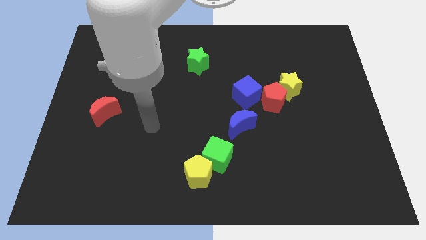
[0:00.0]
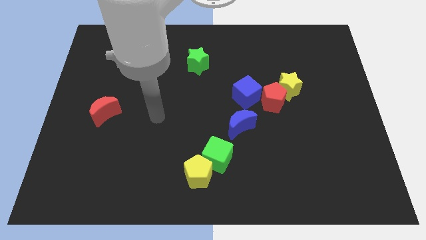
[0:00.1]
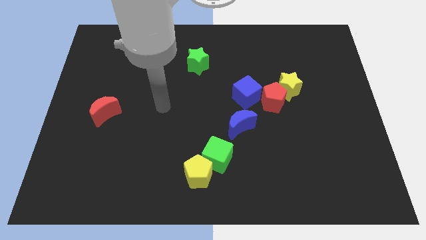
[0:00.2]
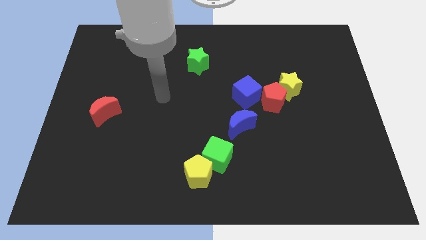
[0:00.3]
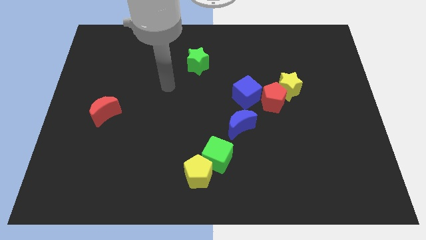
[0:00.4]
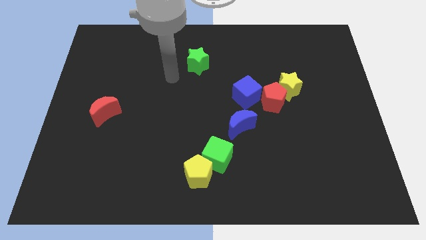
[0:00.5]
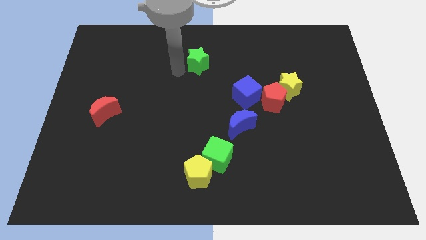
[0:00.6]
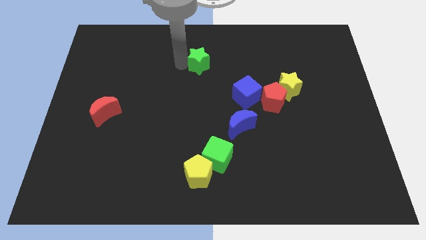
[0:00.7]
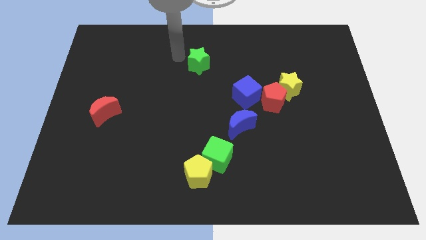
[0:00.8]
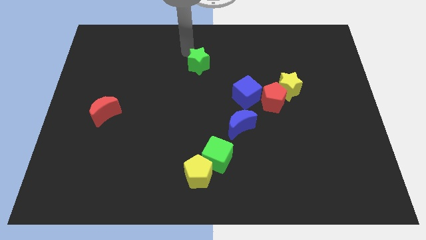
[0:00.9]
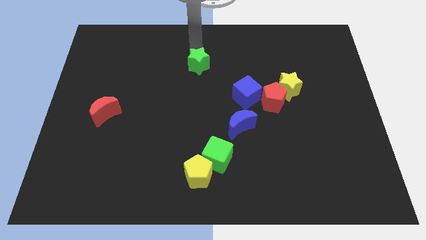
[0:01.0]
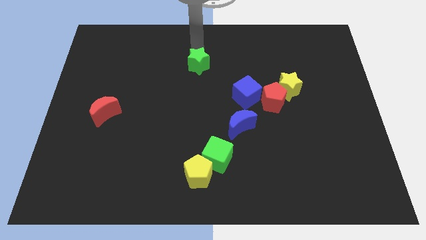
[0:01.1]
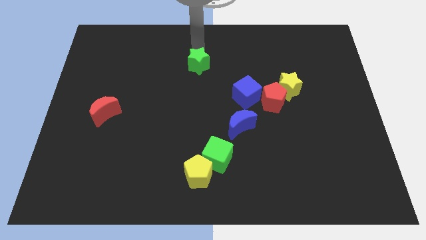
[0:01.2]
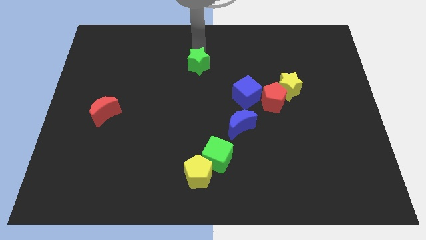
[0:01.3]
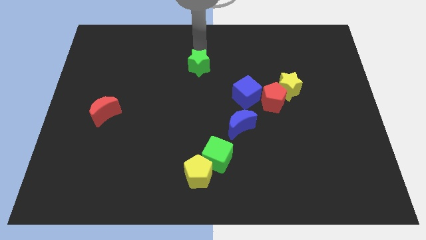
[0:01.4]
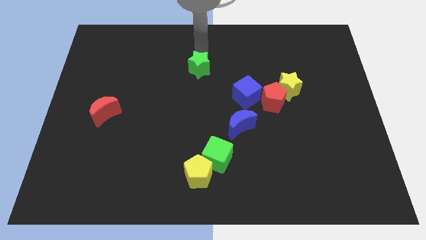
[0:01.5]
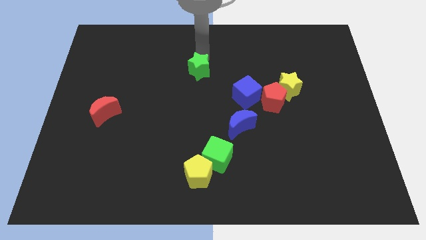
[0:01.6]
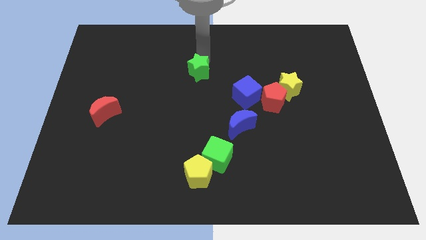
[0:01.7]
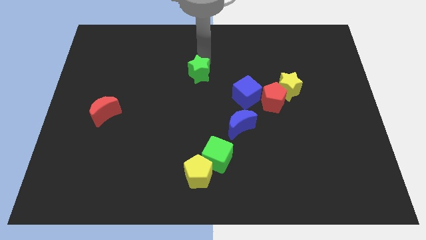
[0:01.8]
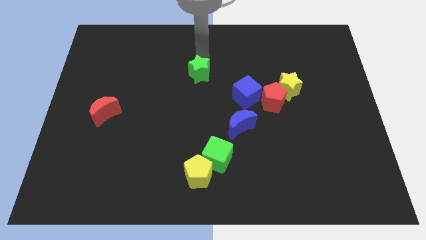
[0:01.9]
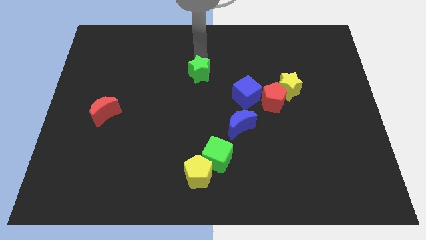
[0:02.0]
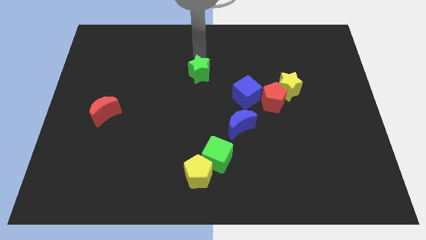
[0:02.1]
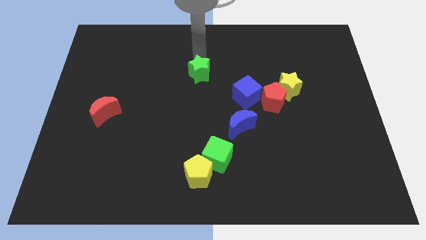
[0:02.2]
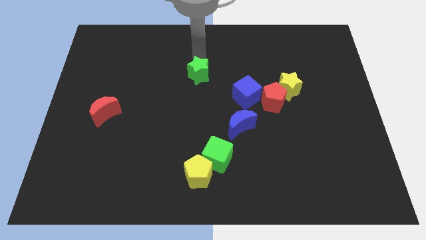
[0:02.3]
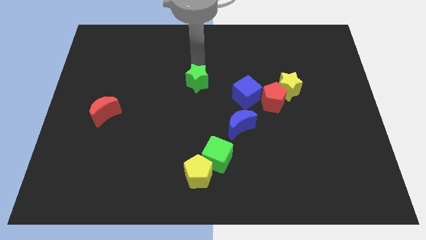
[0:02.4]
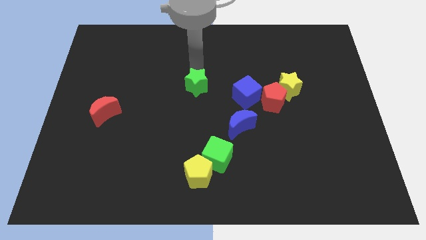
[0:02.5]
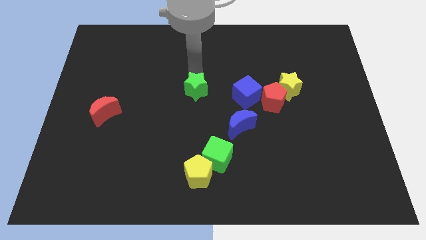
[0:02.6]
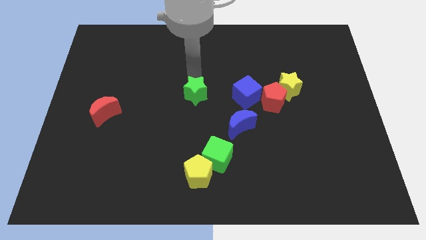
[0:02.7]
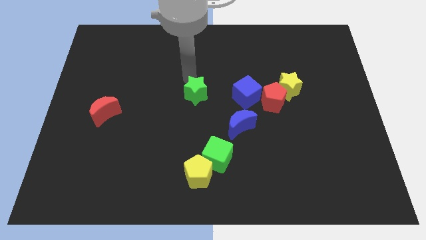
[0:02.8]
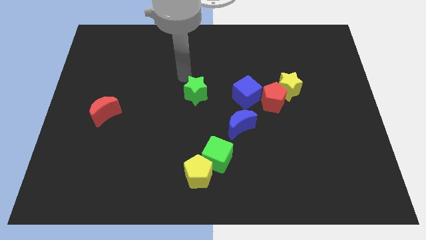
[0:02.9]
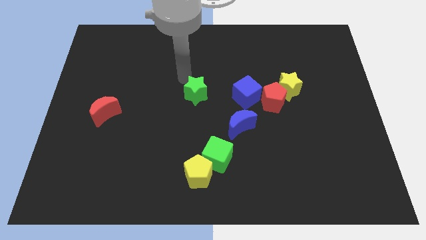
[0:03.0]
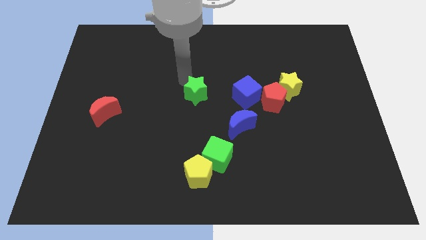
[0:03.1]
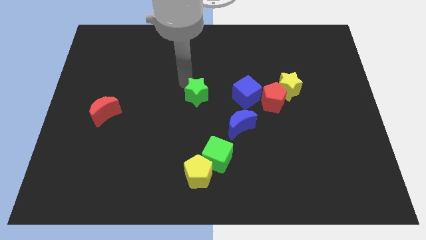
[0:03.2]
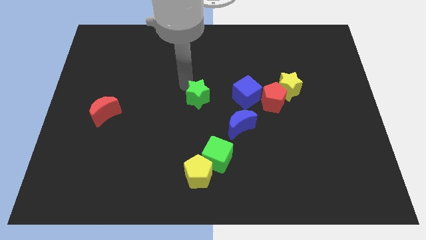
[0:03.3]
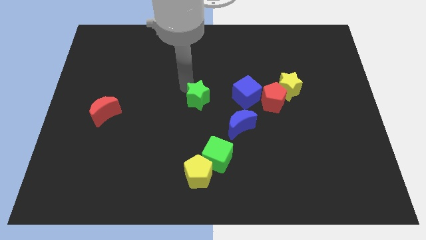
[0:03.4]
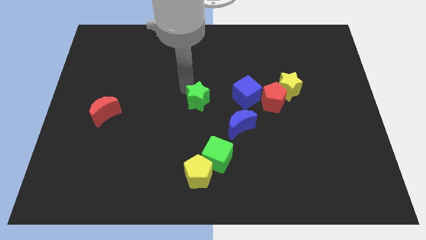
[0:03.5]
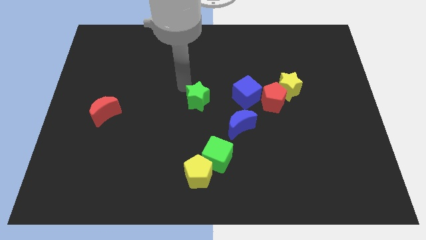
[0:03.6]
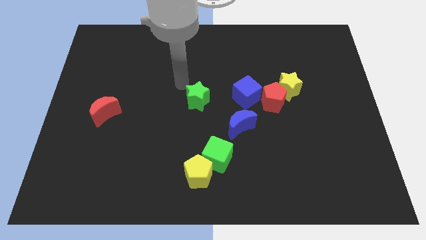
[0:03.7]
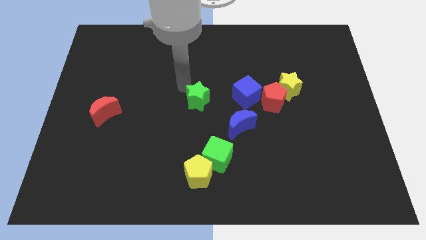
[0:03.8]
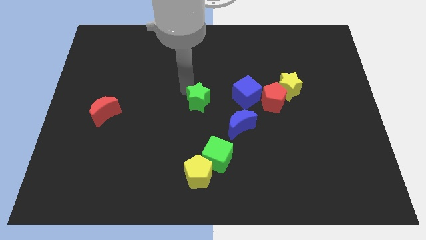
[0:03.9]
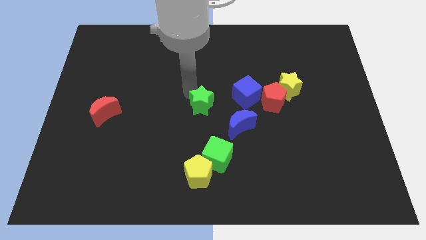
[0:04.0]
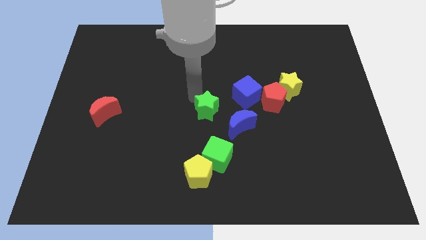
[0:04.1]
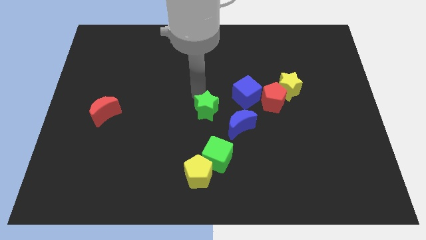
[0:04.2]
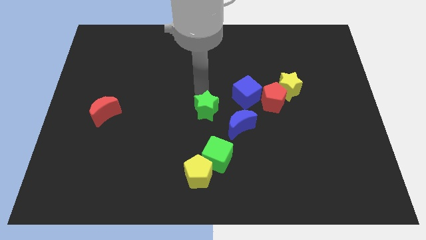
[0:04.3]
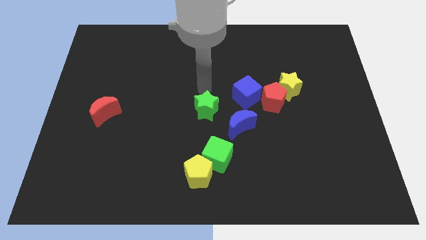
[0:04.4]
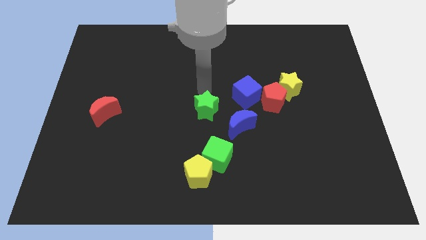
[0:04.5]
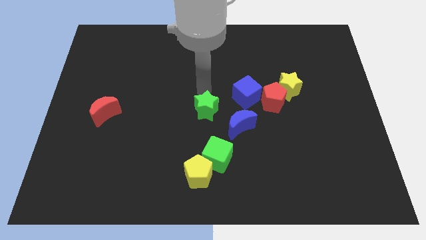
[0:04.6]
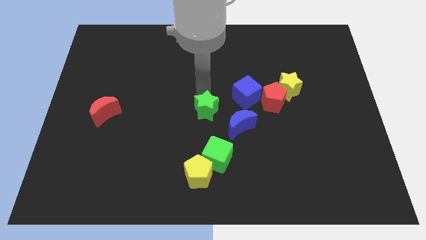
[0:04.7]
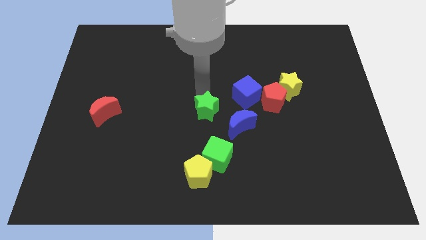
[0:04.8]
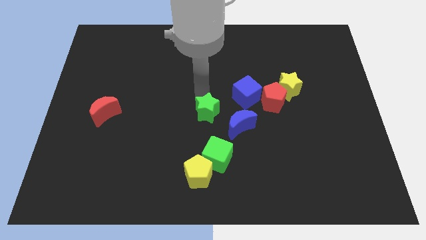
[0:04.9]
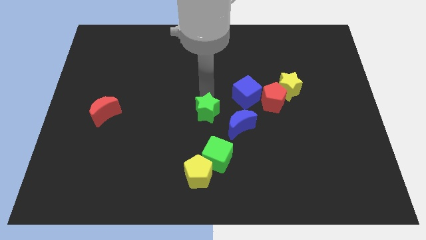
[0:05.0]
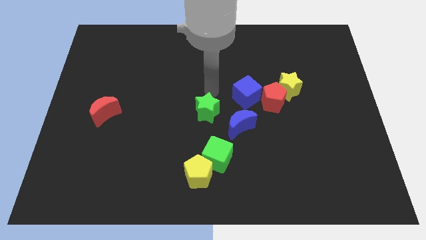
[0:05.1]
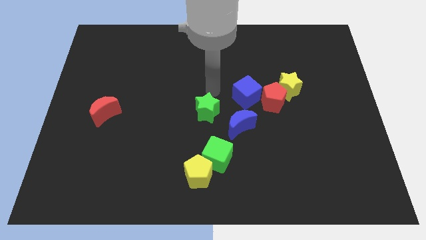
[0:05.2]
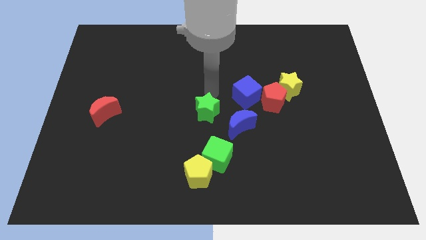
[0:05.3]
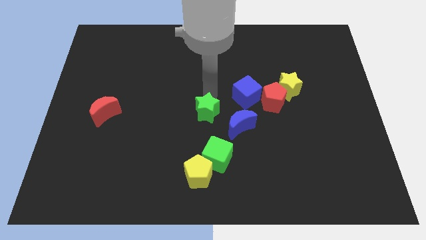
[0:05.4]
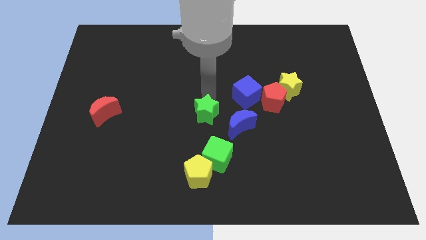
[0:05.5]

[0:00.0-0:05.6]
move the green star above the yellow pentagon

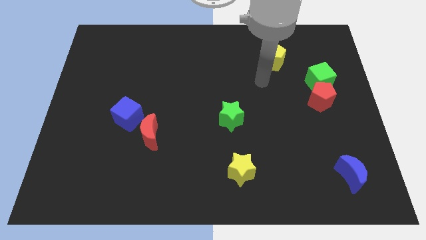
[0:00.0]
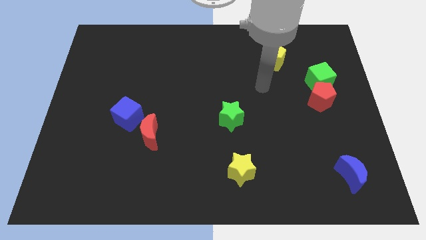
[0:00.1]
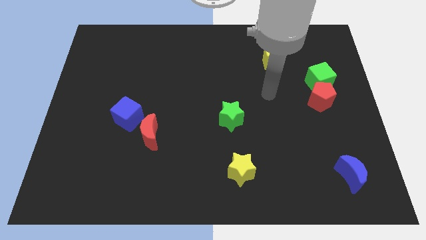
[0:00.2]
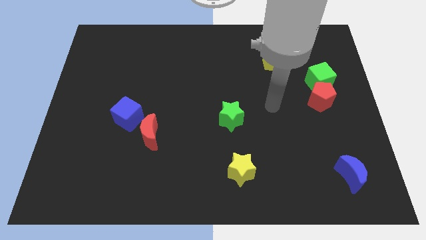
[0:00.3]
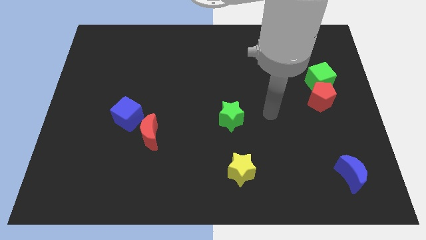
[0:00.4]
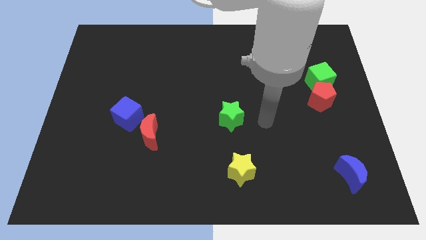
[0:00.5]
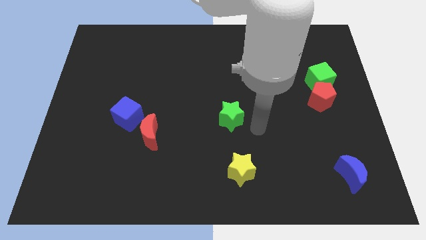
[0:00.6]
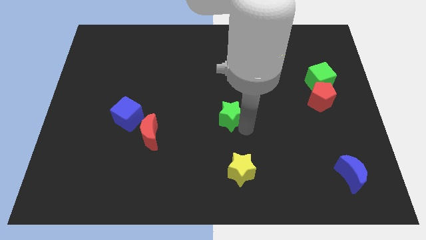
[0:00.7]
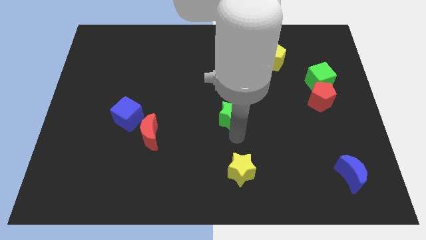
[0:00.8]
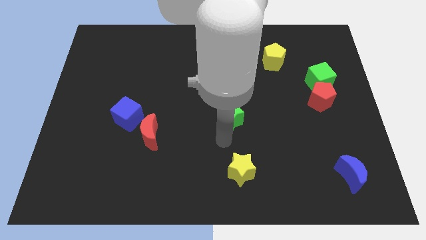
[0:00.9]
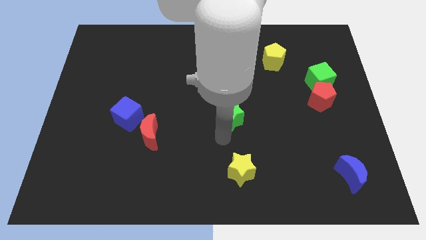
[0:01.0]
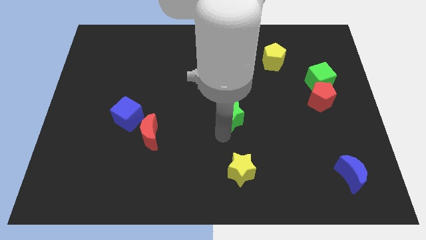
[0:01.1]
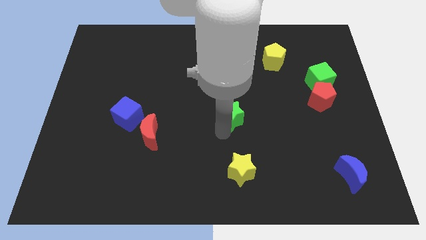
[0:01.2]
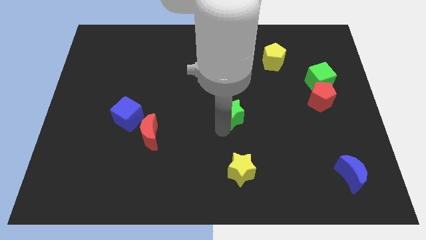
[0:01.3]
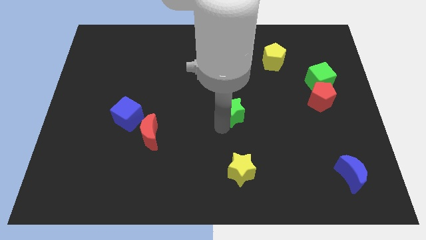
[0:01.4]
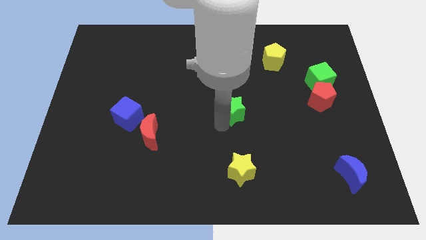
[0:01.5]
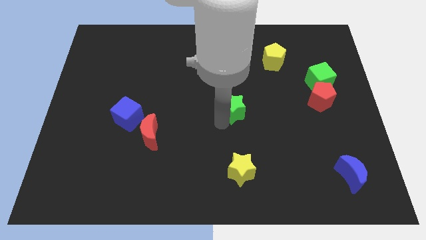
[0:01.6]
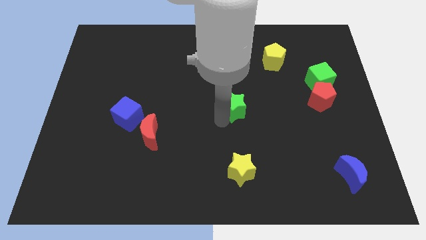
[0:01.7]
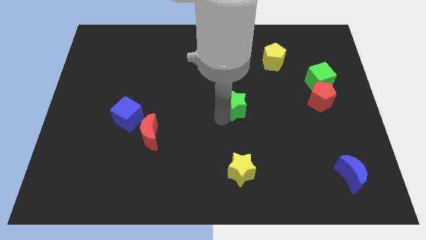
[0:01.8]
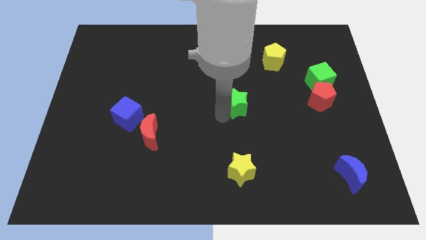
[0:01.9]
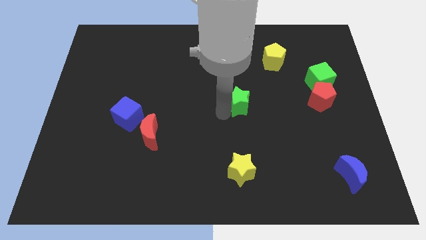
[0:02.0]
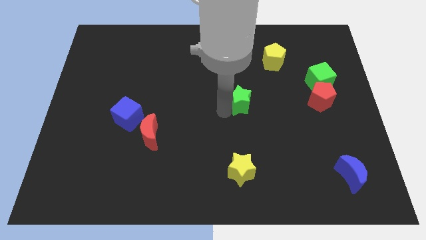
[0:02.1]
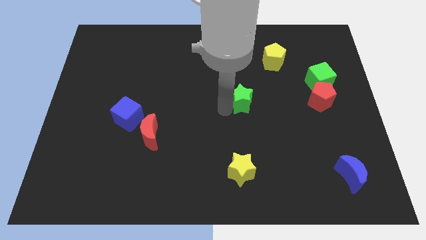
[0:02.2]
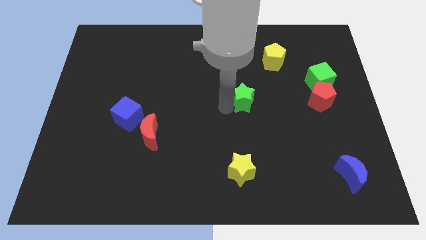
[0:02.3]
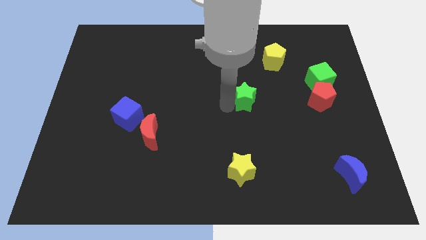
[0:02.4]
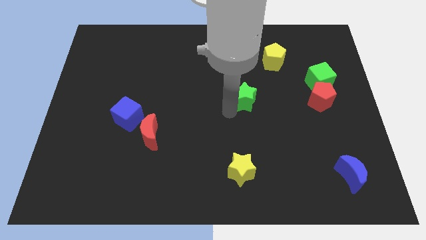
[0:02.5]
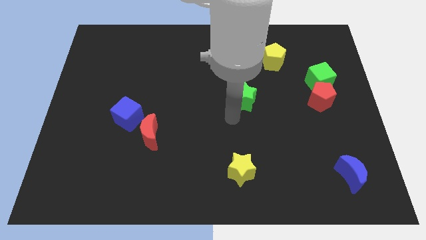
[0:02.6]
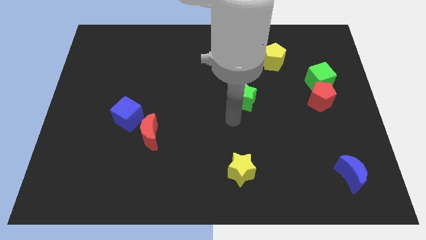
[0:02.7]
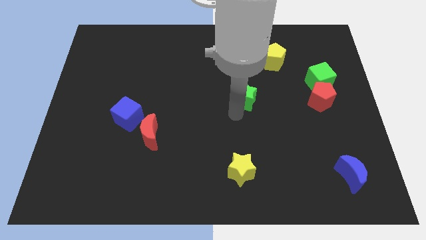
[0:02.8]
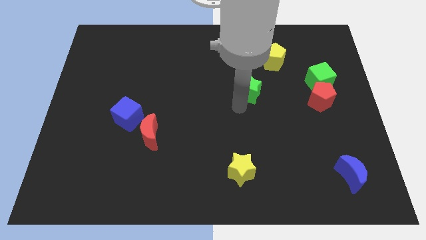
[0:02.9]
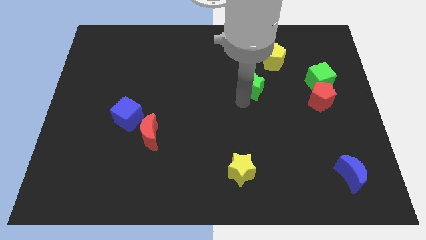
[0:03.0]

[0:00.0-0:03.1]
push the green star to the bottom left side of the yellow pentagon
